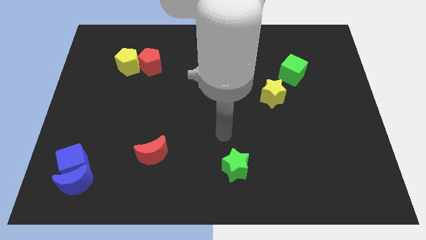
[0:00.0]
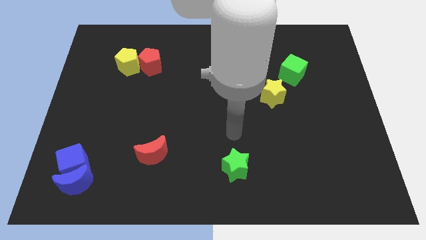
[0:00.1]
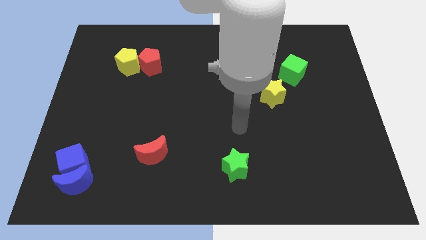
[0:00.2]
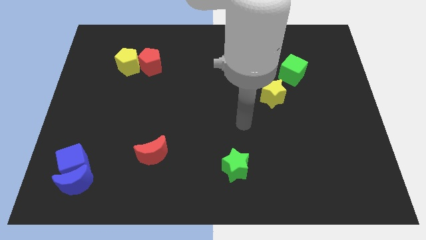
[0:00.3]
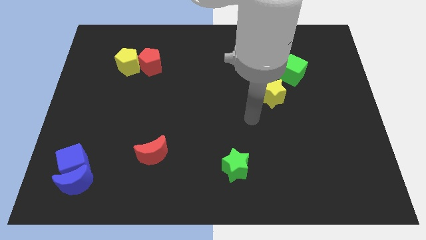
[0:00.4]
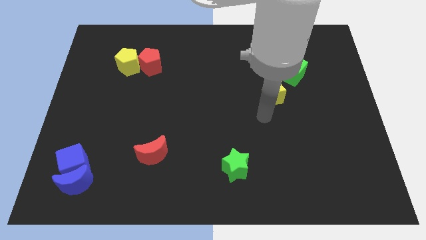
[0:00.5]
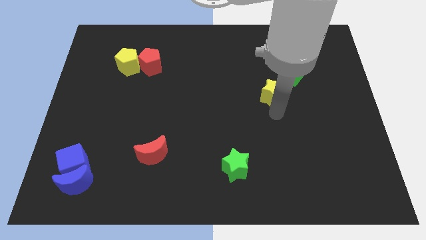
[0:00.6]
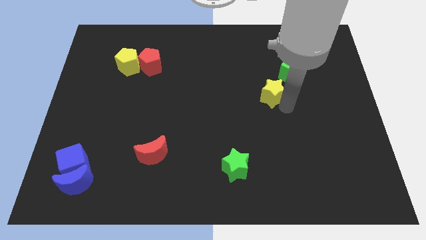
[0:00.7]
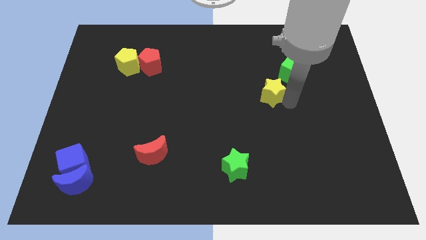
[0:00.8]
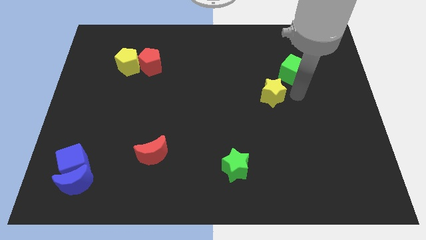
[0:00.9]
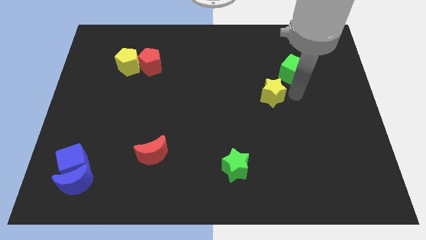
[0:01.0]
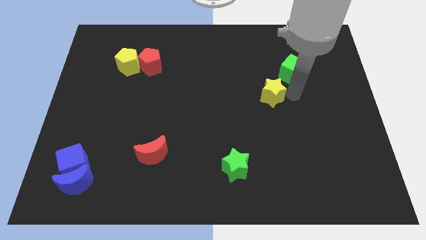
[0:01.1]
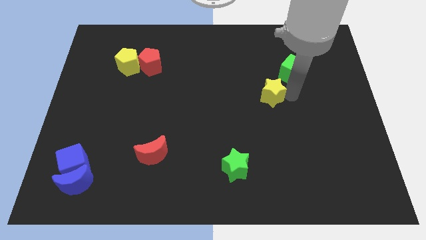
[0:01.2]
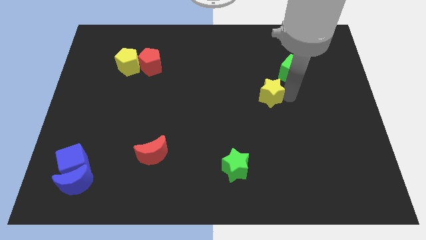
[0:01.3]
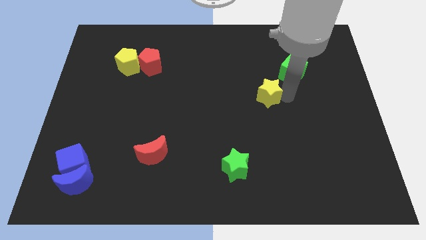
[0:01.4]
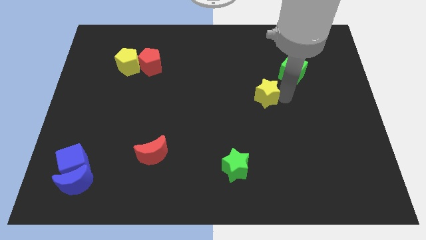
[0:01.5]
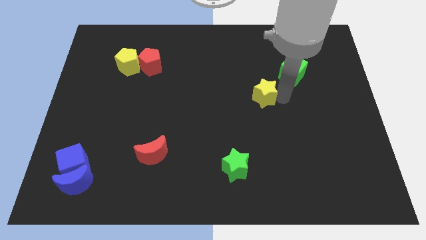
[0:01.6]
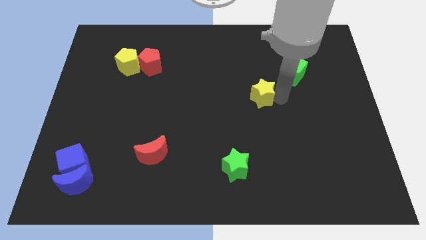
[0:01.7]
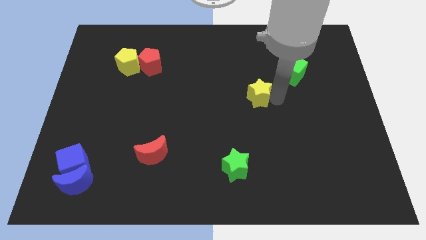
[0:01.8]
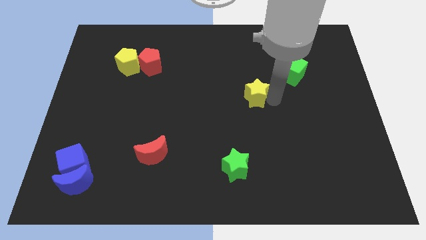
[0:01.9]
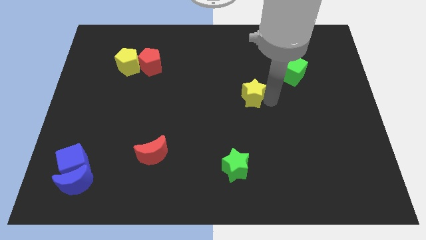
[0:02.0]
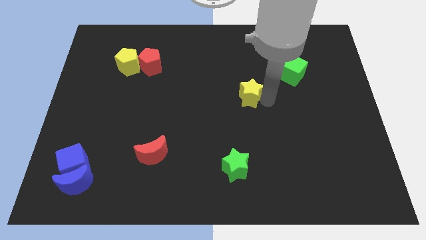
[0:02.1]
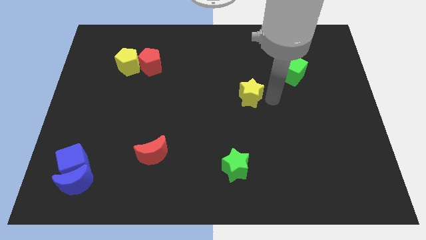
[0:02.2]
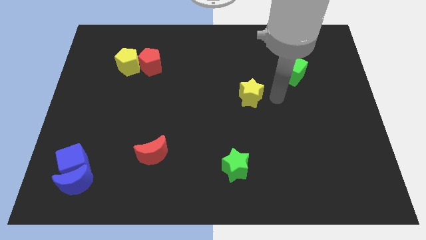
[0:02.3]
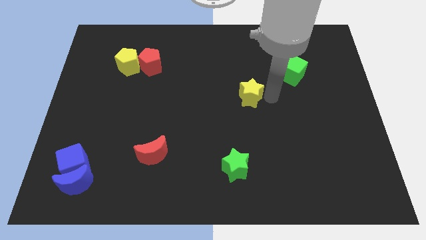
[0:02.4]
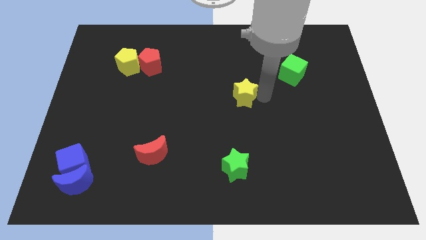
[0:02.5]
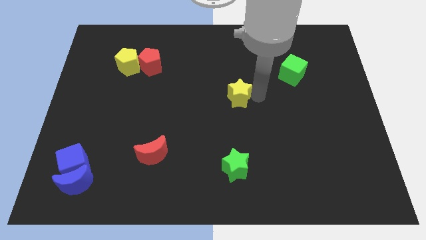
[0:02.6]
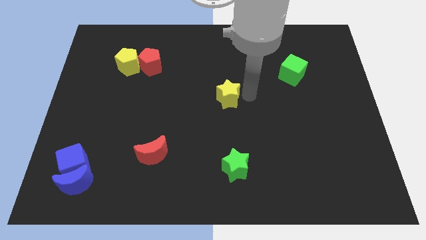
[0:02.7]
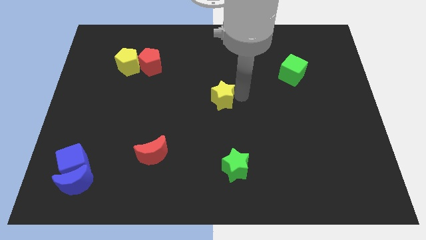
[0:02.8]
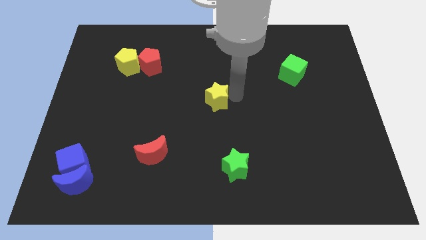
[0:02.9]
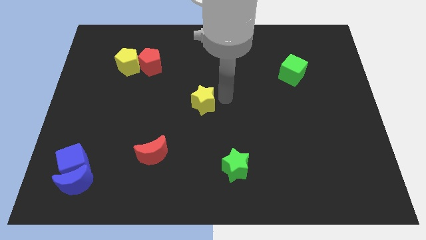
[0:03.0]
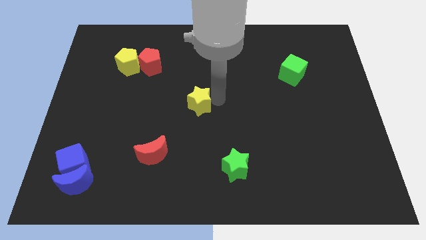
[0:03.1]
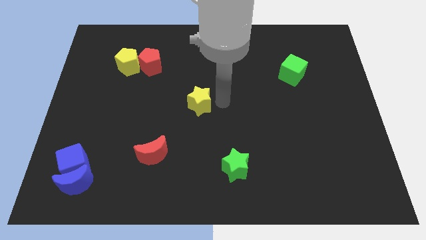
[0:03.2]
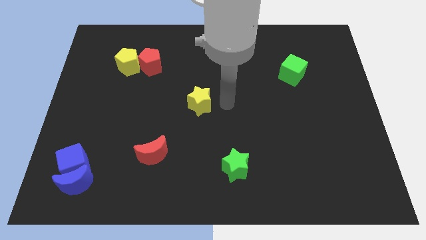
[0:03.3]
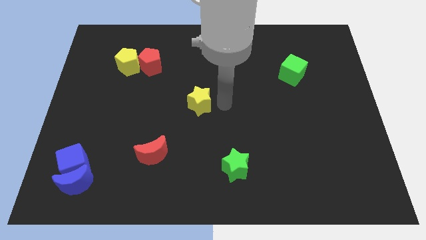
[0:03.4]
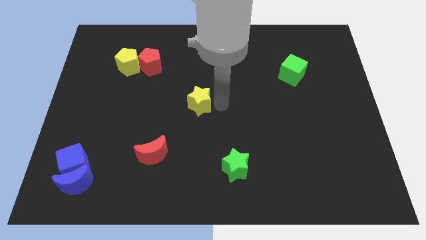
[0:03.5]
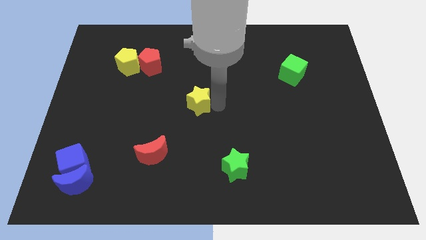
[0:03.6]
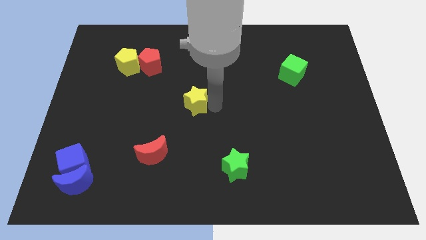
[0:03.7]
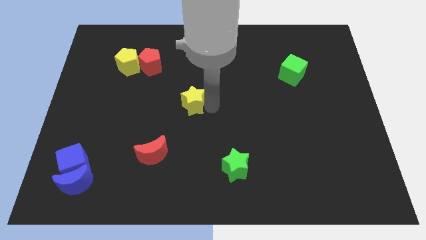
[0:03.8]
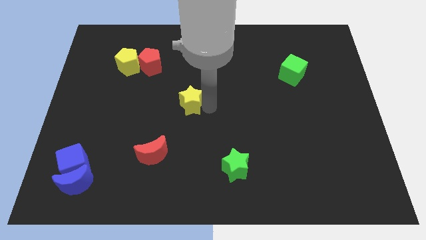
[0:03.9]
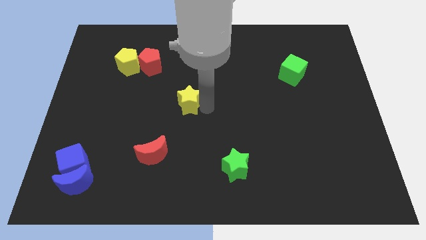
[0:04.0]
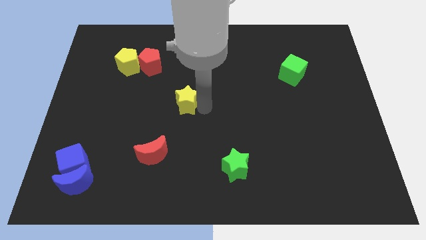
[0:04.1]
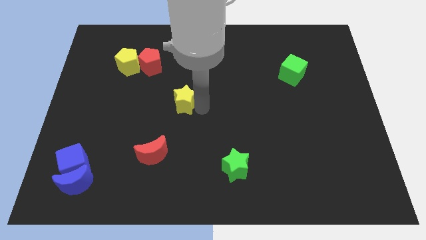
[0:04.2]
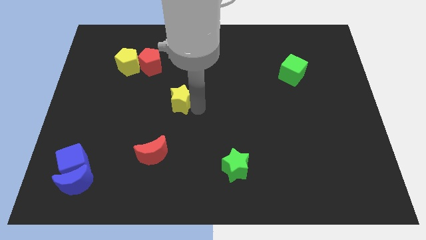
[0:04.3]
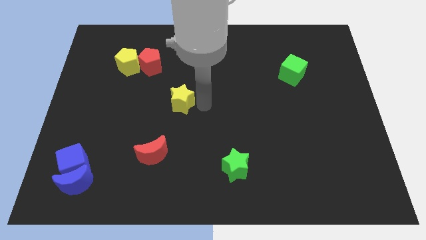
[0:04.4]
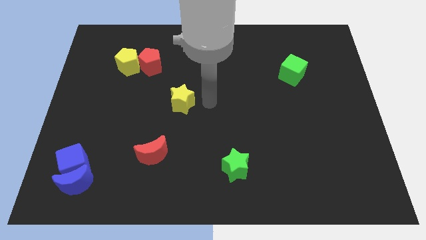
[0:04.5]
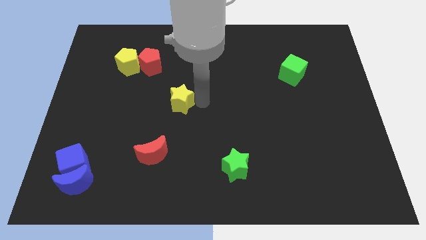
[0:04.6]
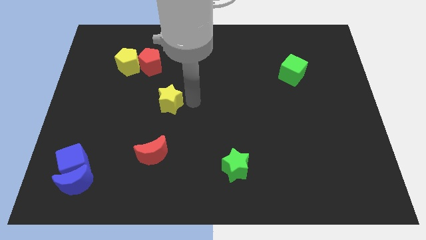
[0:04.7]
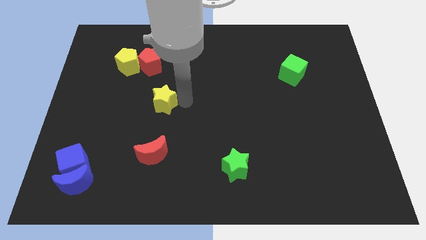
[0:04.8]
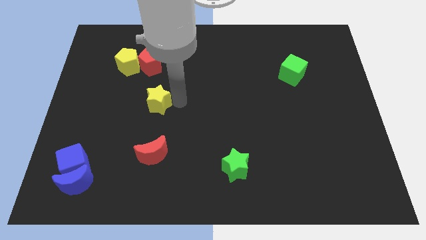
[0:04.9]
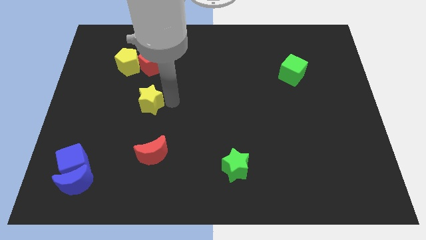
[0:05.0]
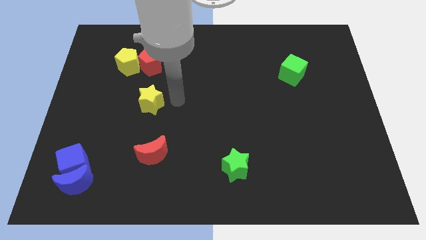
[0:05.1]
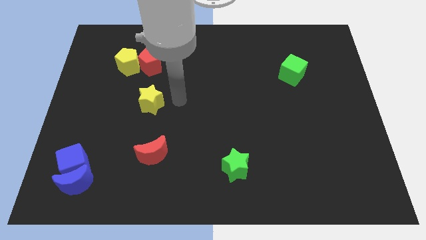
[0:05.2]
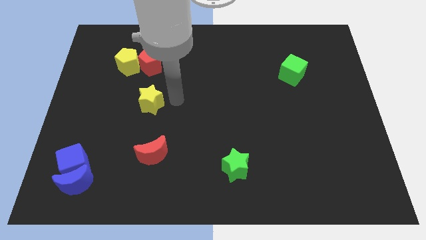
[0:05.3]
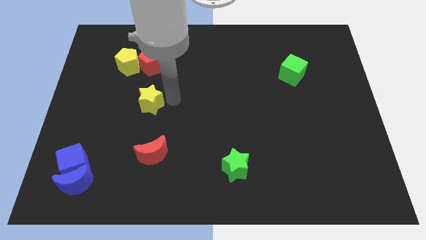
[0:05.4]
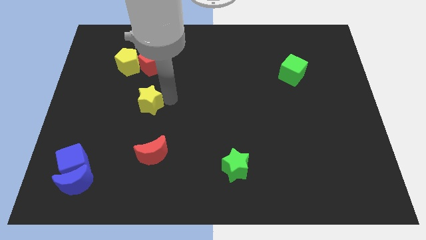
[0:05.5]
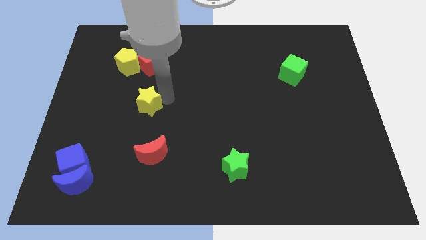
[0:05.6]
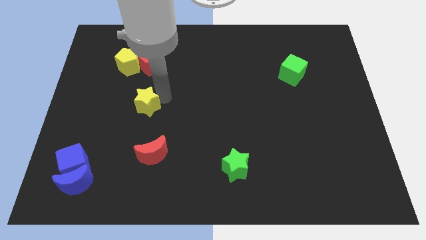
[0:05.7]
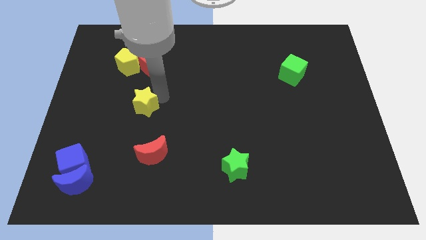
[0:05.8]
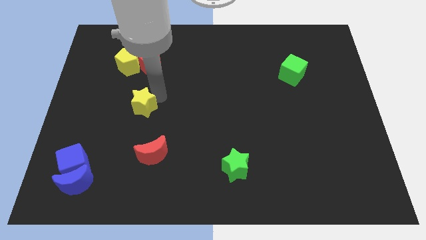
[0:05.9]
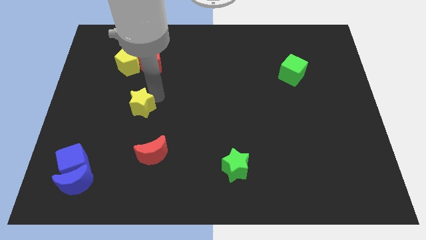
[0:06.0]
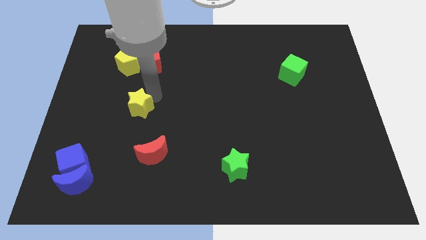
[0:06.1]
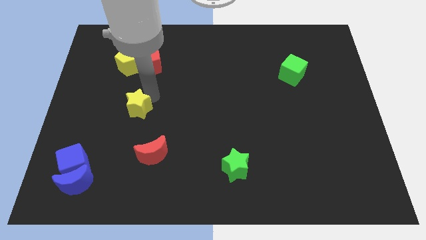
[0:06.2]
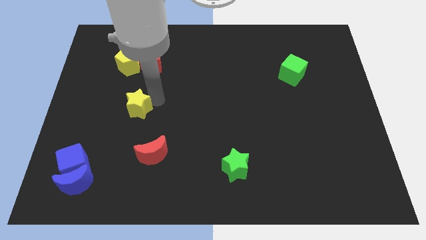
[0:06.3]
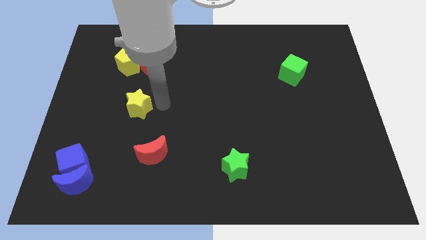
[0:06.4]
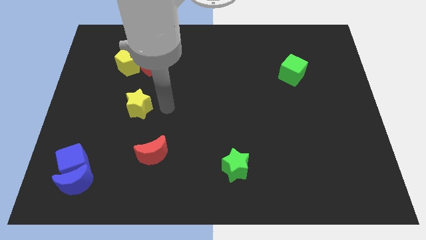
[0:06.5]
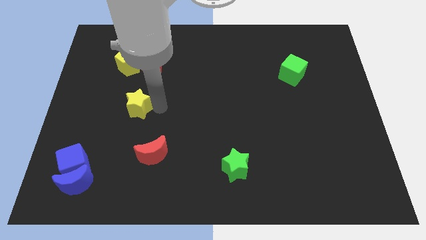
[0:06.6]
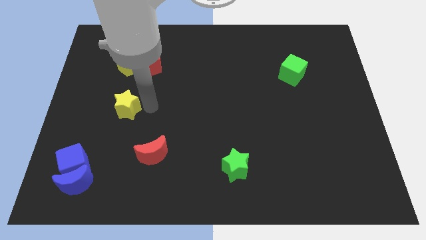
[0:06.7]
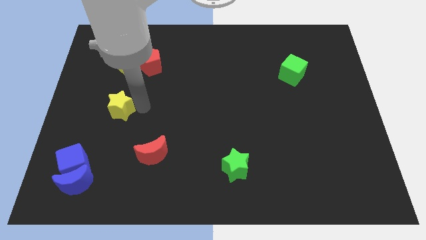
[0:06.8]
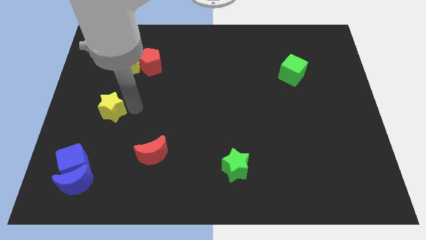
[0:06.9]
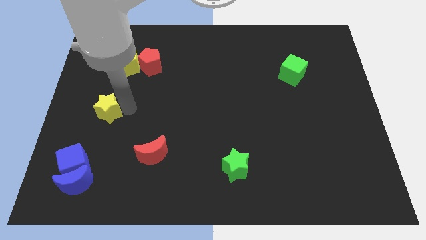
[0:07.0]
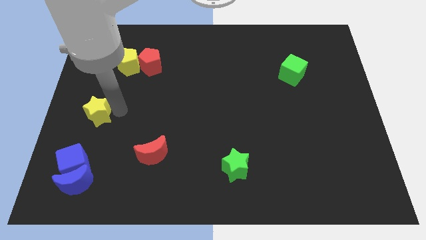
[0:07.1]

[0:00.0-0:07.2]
put the yellow star to the left side of the board
